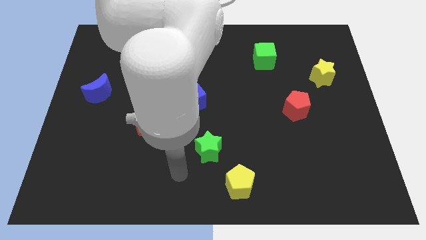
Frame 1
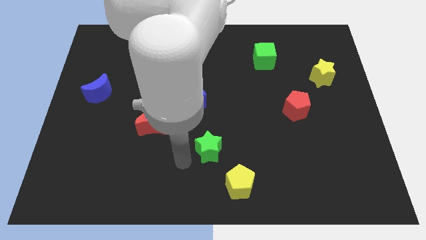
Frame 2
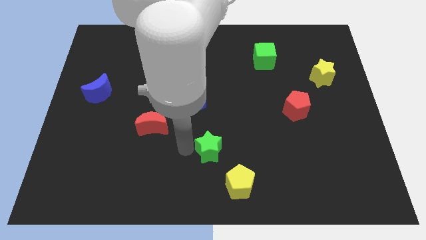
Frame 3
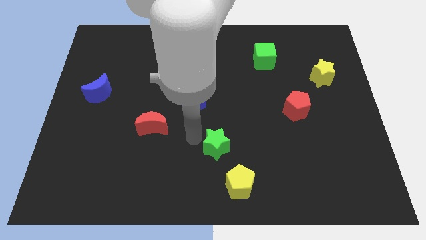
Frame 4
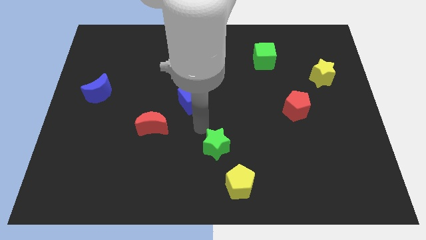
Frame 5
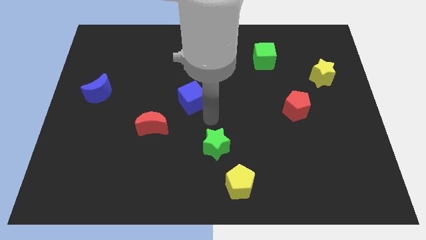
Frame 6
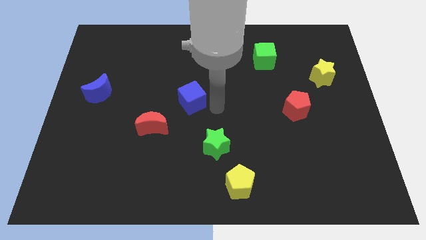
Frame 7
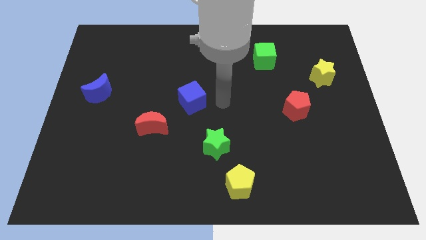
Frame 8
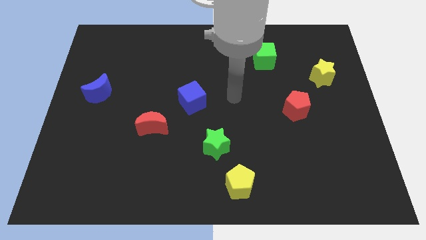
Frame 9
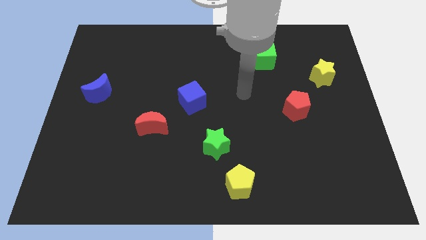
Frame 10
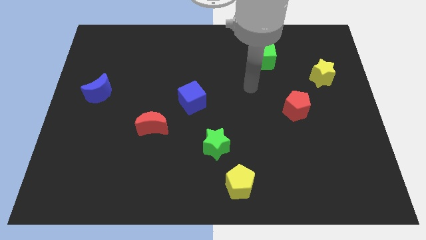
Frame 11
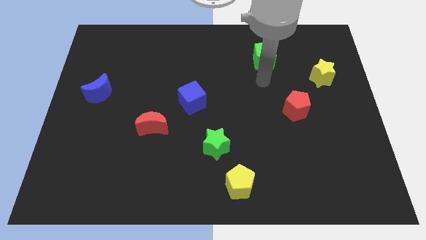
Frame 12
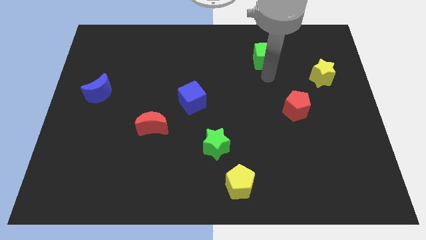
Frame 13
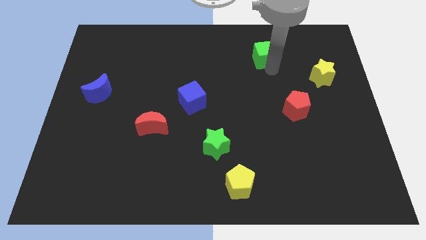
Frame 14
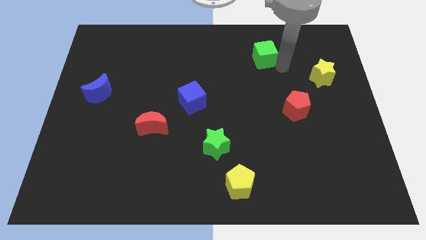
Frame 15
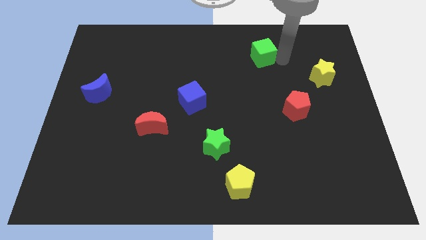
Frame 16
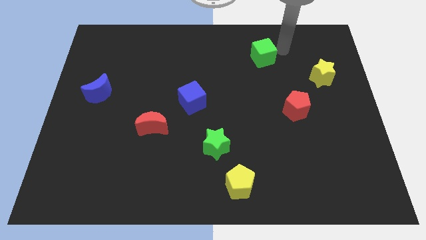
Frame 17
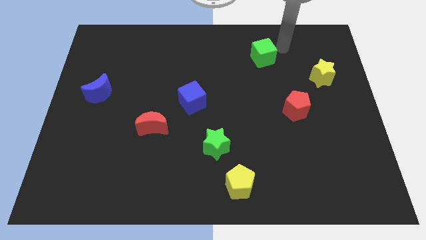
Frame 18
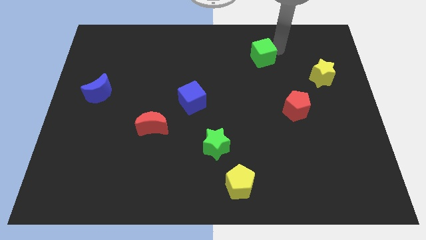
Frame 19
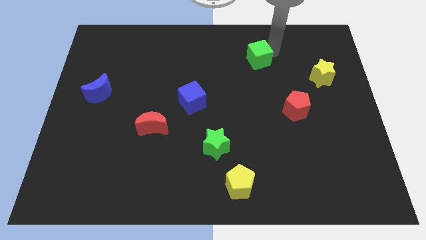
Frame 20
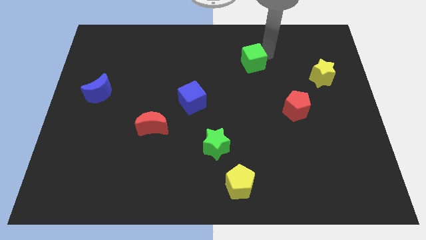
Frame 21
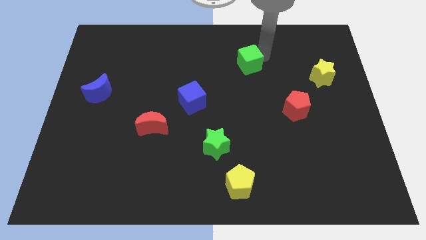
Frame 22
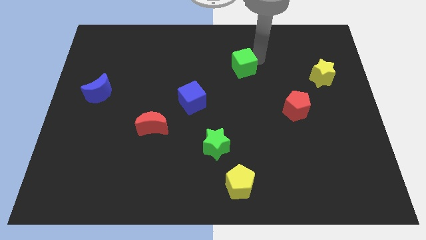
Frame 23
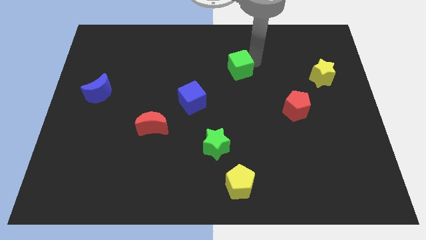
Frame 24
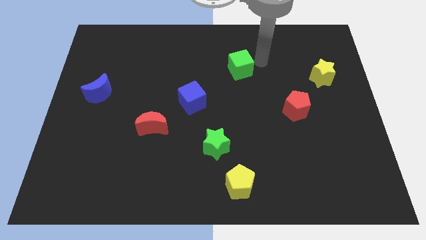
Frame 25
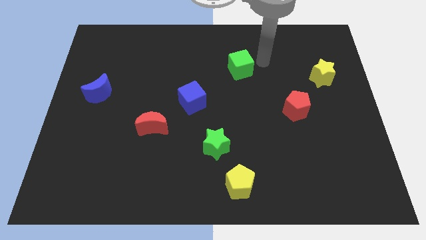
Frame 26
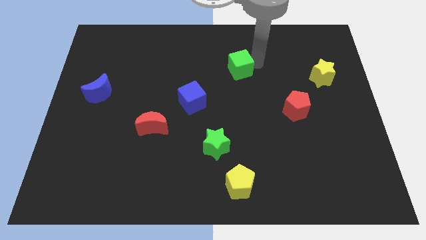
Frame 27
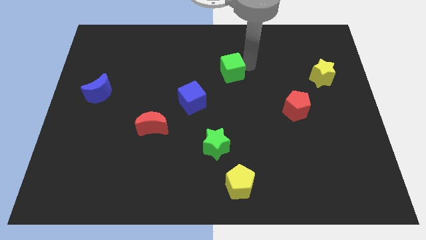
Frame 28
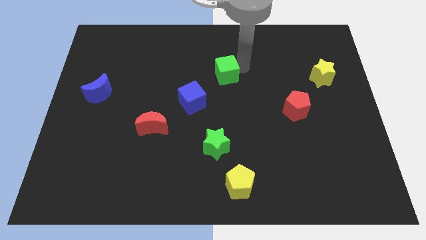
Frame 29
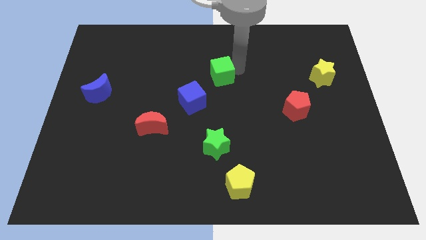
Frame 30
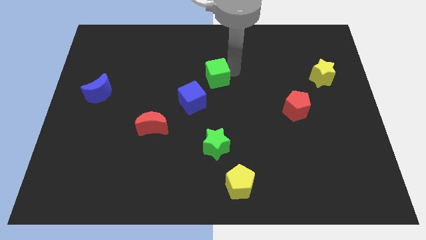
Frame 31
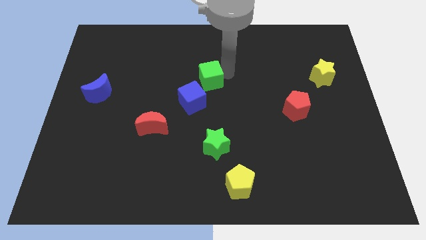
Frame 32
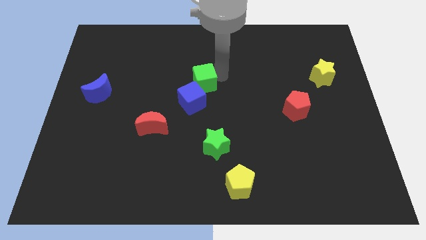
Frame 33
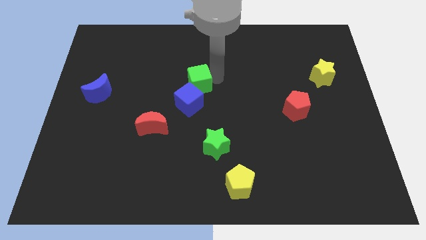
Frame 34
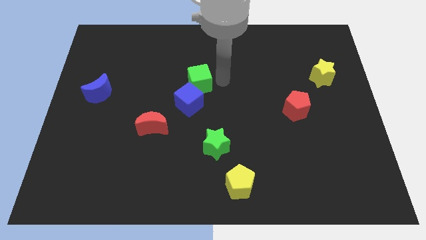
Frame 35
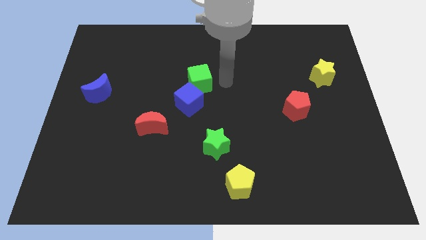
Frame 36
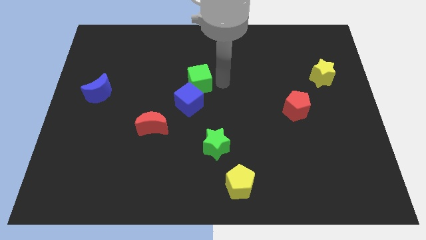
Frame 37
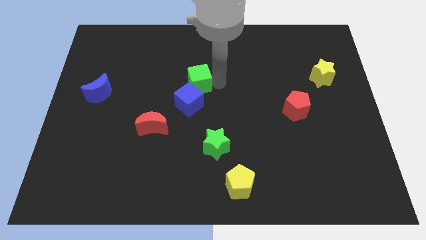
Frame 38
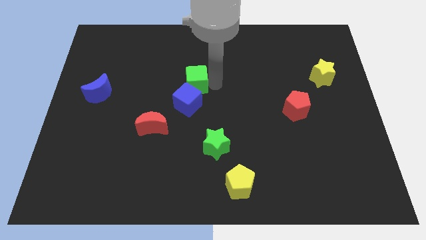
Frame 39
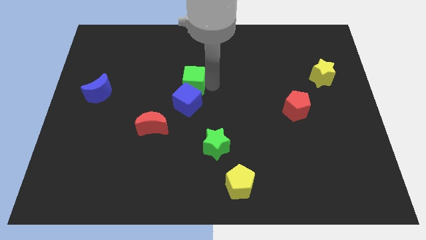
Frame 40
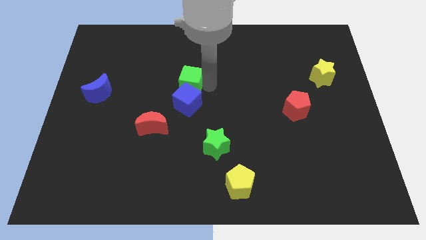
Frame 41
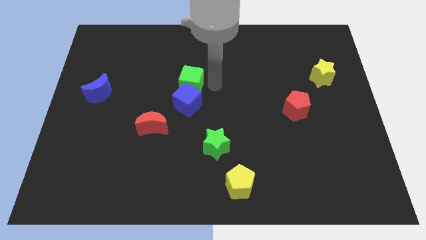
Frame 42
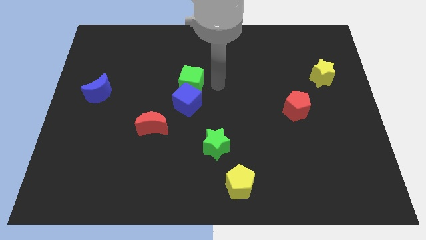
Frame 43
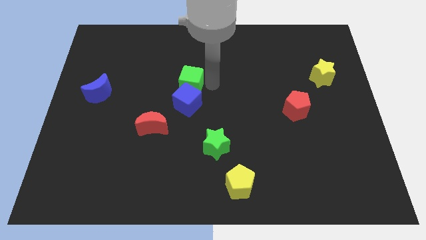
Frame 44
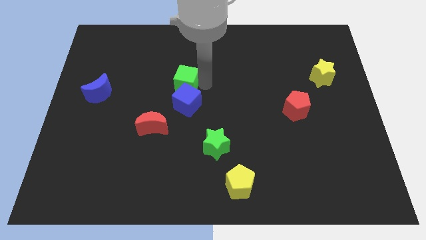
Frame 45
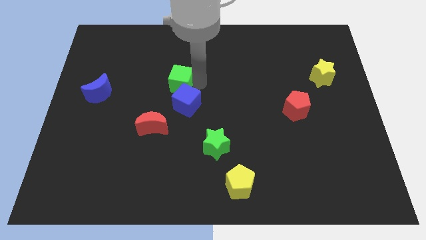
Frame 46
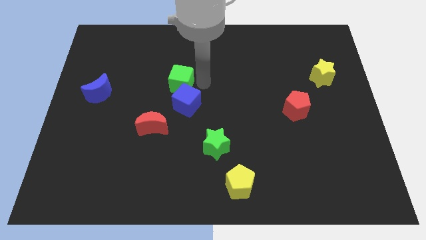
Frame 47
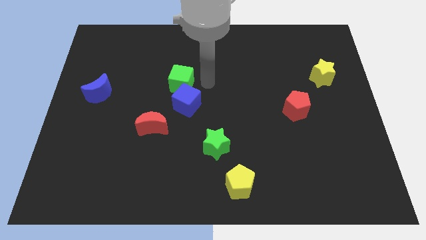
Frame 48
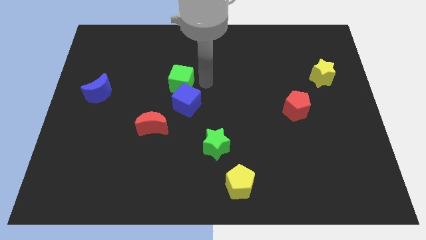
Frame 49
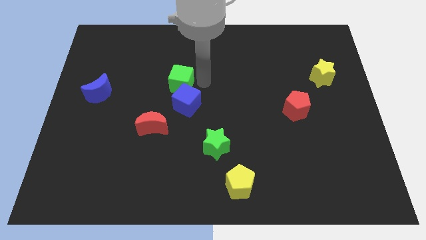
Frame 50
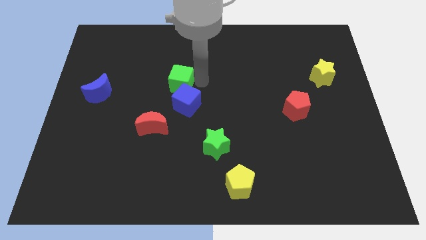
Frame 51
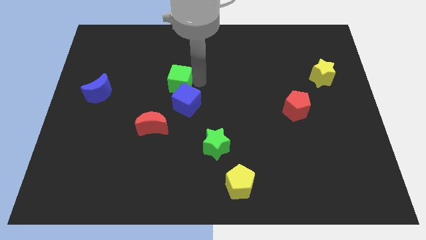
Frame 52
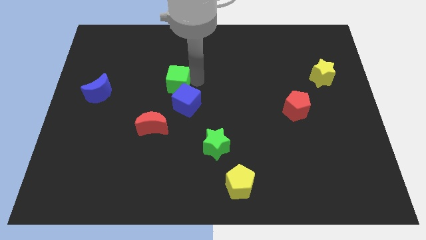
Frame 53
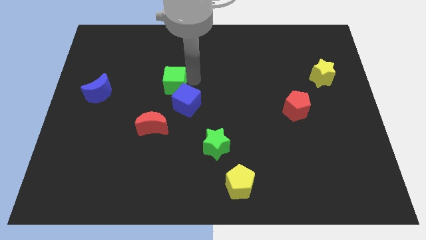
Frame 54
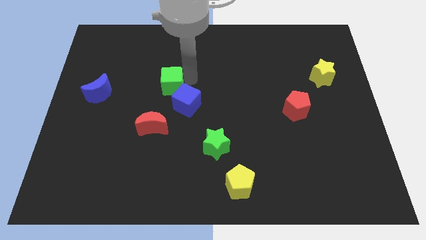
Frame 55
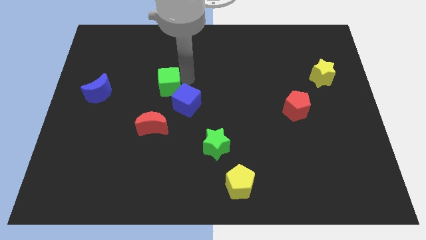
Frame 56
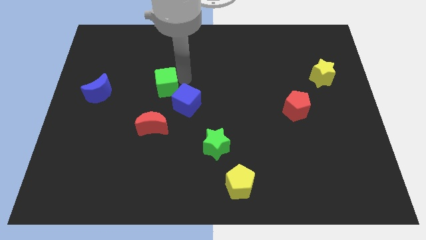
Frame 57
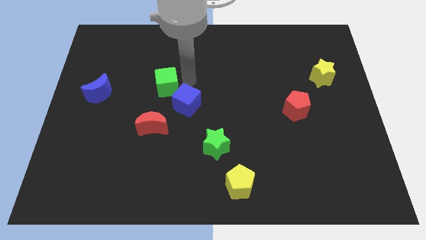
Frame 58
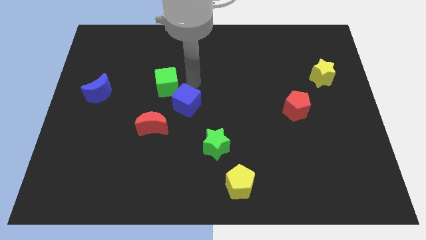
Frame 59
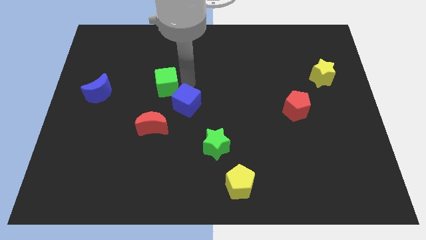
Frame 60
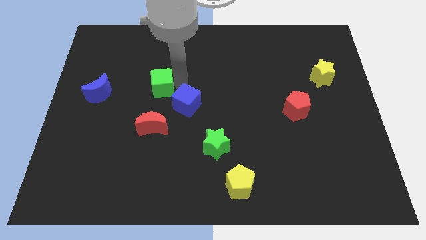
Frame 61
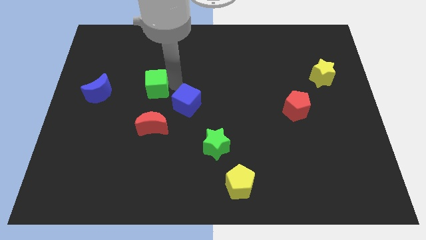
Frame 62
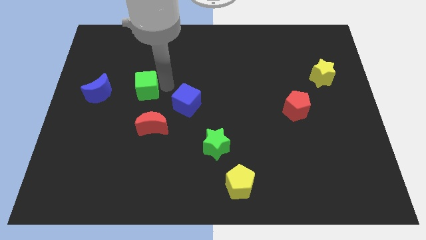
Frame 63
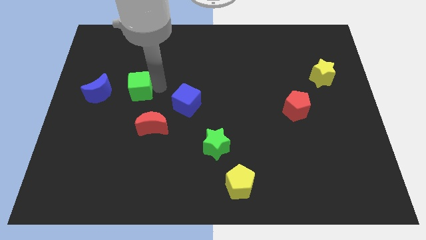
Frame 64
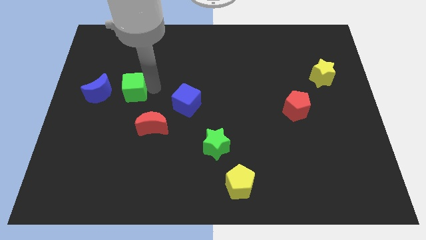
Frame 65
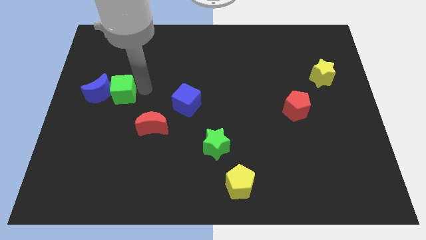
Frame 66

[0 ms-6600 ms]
push the green cube close to the blue moon

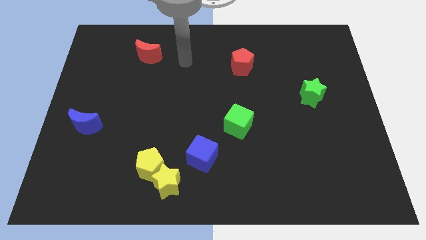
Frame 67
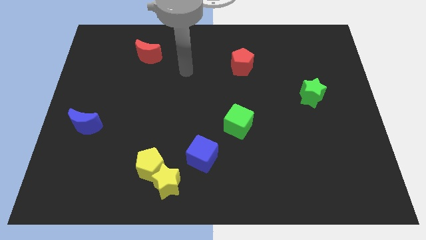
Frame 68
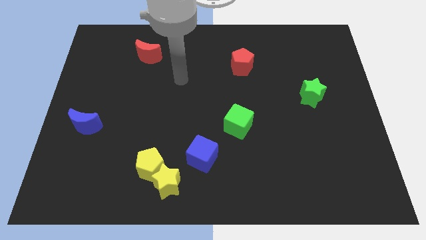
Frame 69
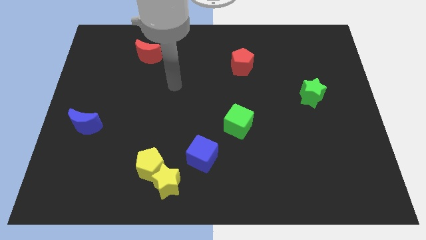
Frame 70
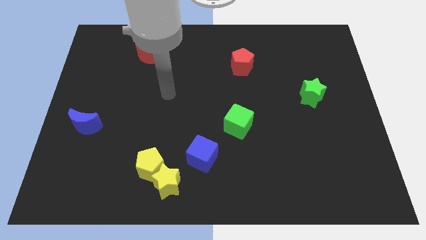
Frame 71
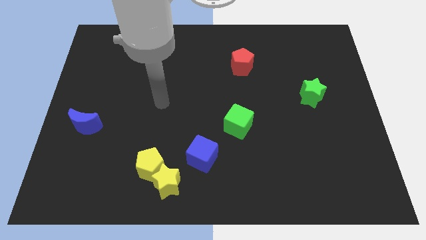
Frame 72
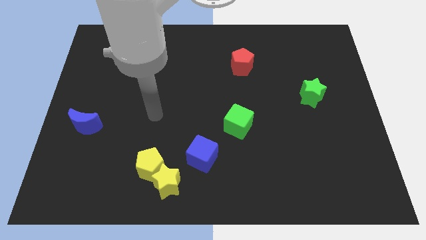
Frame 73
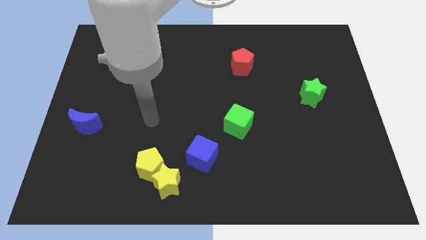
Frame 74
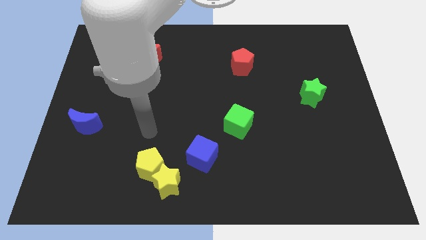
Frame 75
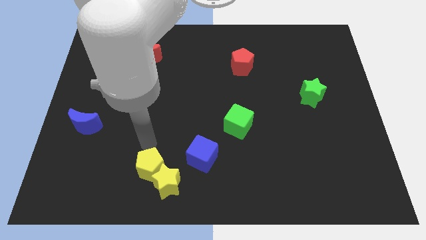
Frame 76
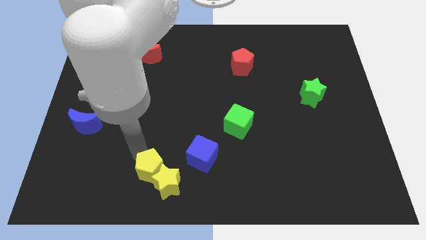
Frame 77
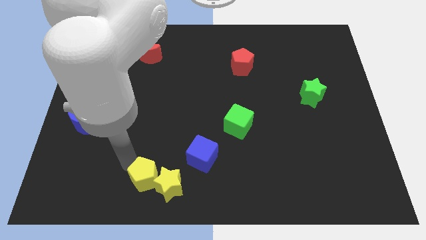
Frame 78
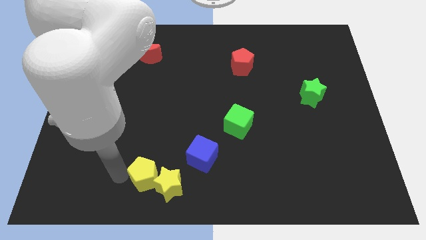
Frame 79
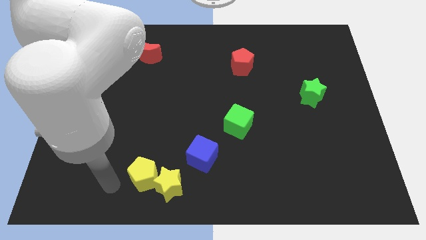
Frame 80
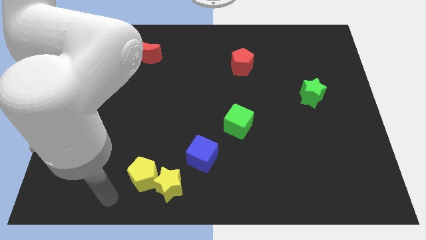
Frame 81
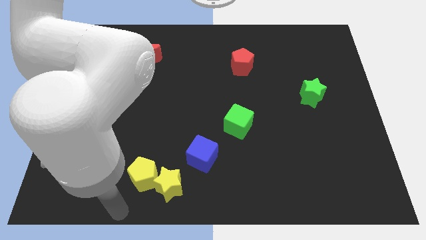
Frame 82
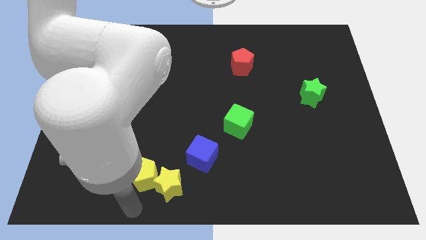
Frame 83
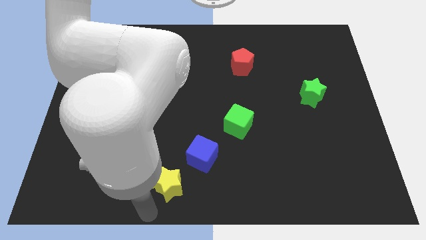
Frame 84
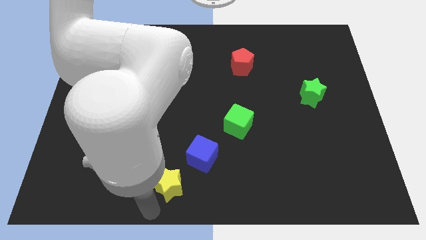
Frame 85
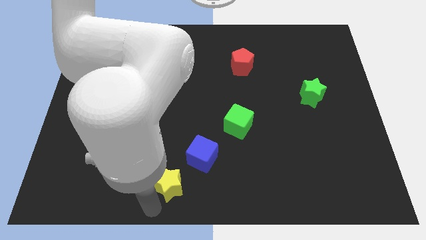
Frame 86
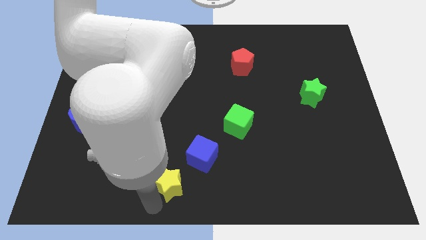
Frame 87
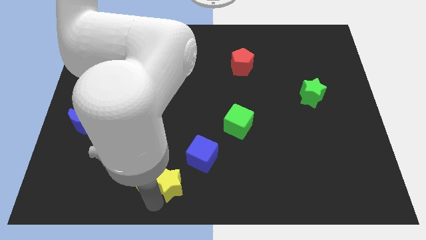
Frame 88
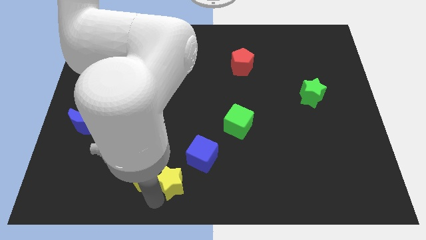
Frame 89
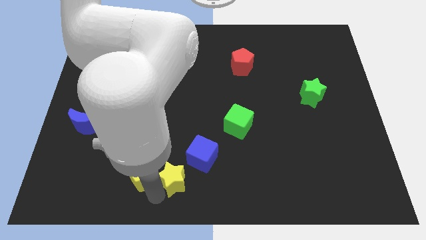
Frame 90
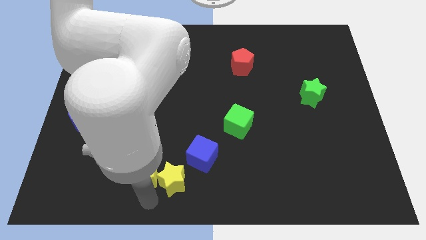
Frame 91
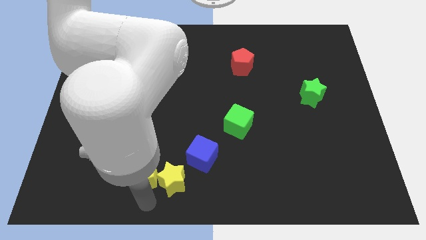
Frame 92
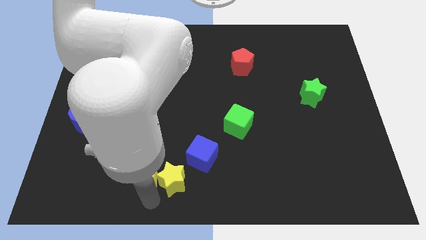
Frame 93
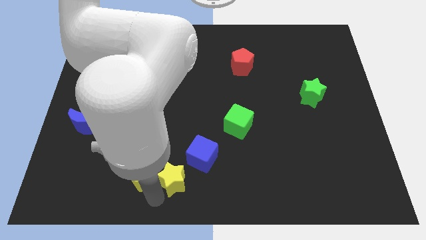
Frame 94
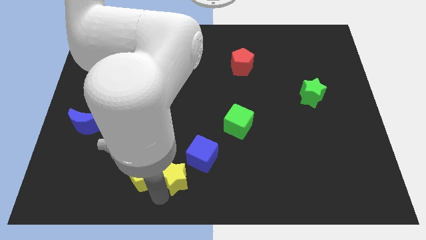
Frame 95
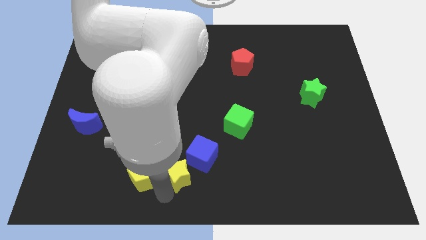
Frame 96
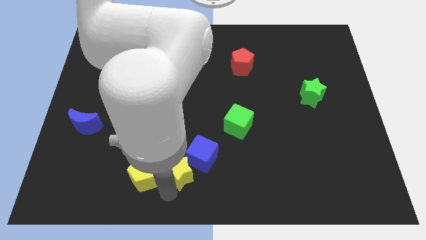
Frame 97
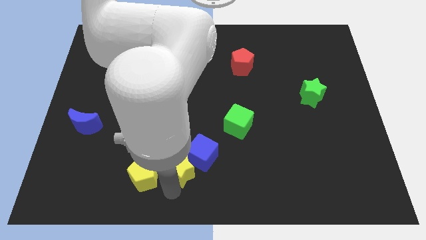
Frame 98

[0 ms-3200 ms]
move the yellow star next to the blue cube
